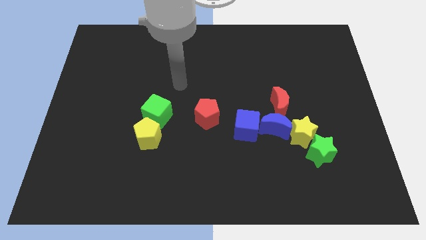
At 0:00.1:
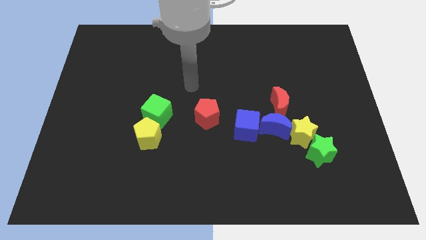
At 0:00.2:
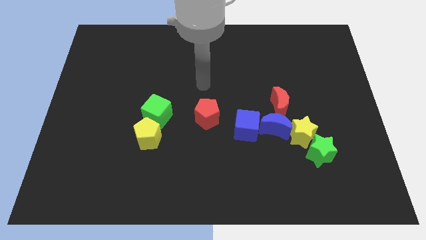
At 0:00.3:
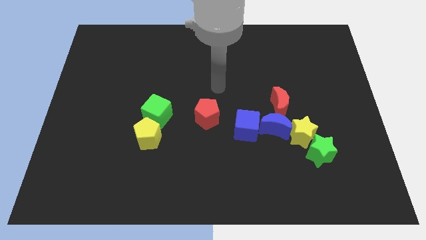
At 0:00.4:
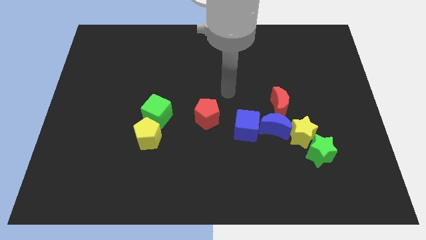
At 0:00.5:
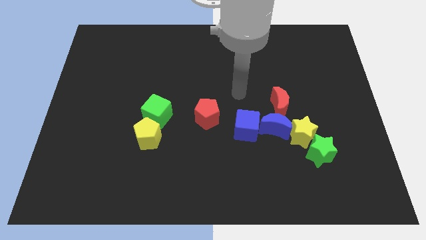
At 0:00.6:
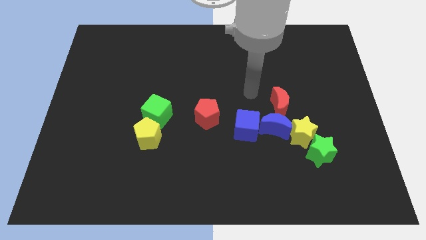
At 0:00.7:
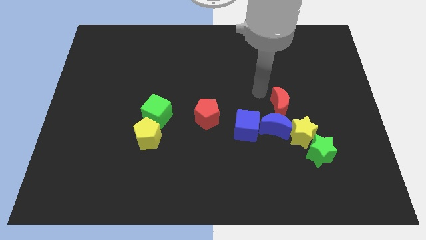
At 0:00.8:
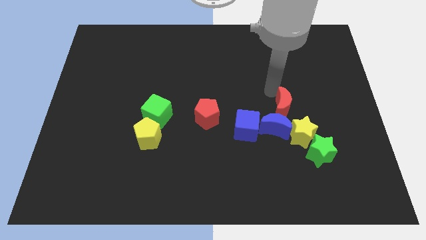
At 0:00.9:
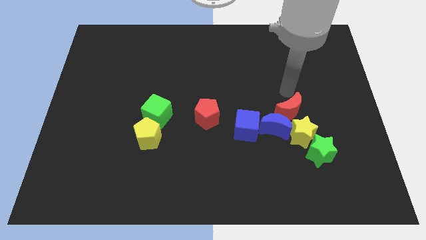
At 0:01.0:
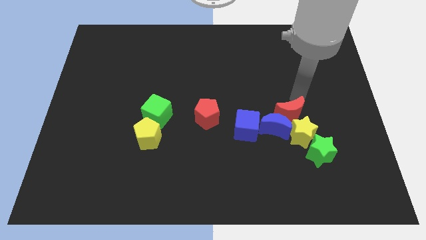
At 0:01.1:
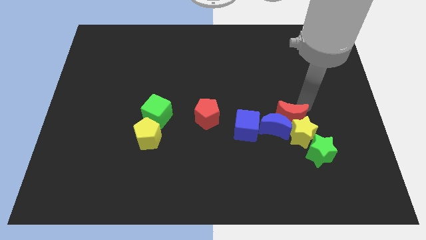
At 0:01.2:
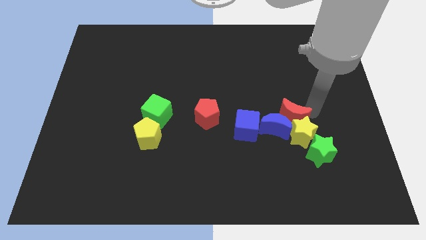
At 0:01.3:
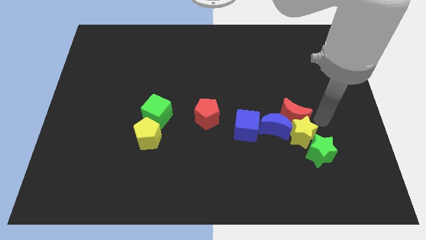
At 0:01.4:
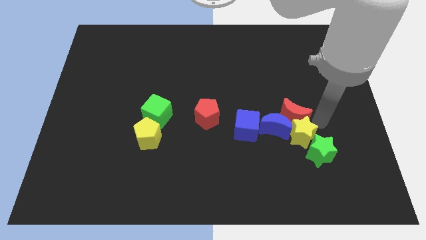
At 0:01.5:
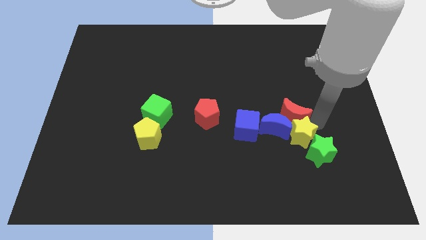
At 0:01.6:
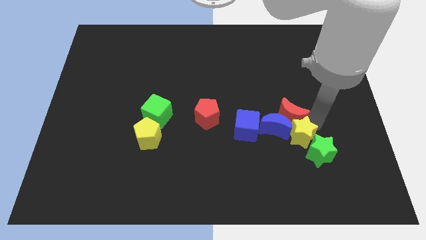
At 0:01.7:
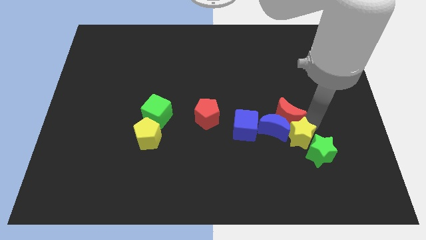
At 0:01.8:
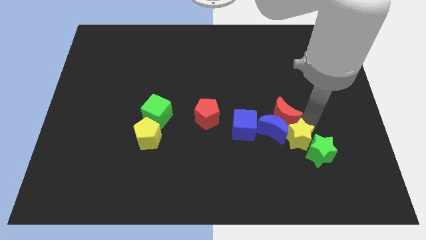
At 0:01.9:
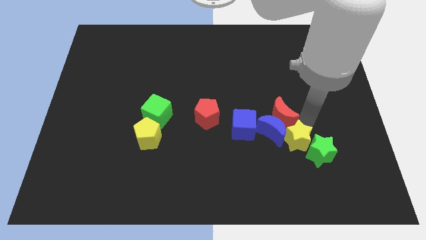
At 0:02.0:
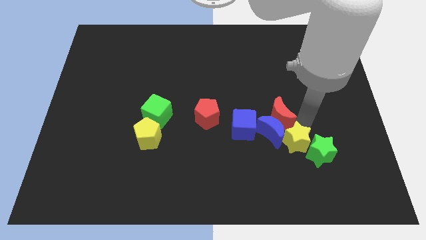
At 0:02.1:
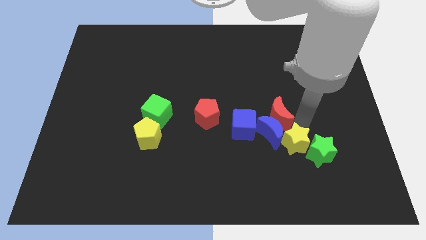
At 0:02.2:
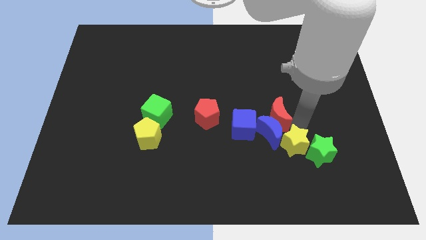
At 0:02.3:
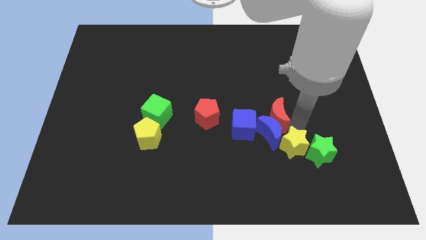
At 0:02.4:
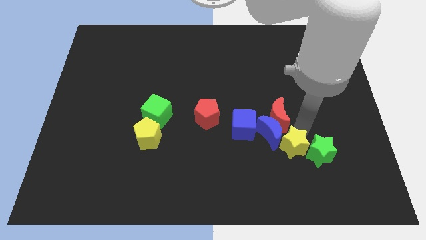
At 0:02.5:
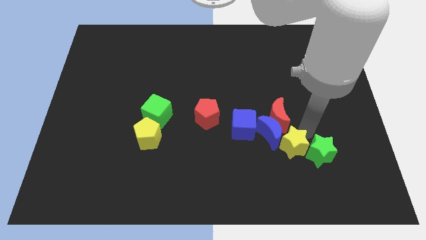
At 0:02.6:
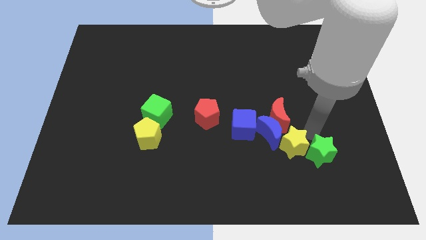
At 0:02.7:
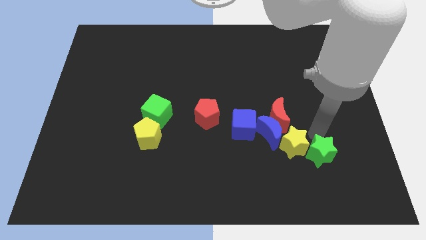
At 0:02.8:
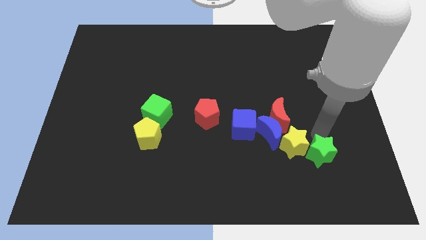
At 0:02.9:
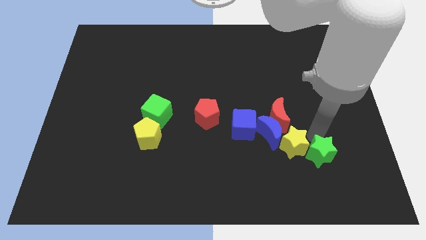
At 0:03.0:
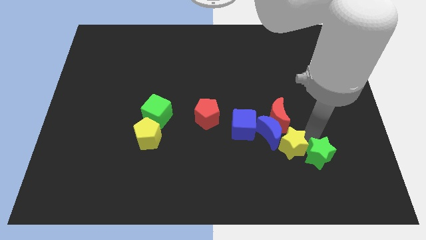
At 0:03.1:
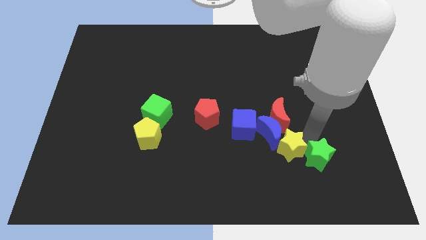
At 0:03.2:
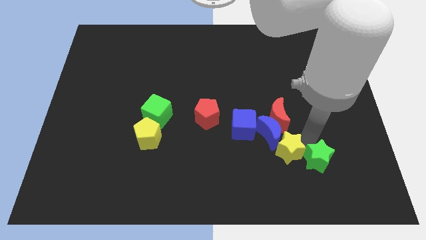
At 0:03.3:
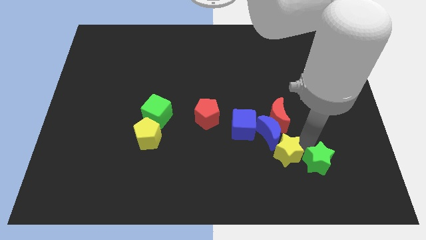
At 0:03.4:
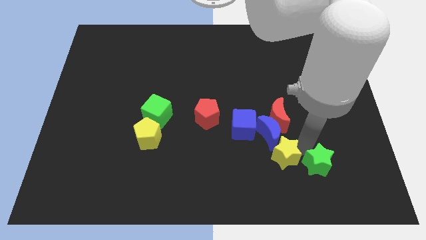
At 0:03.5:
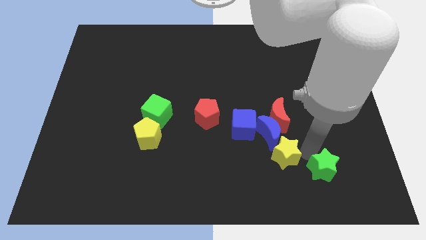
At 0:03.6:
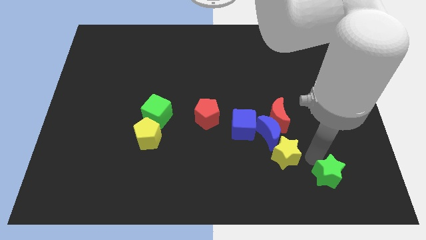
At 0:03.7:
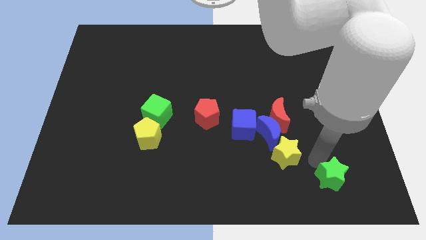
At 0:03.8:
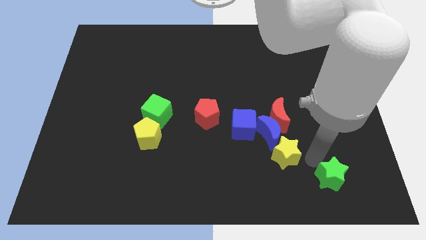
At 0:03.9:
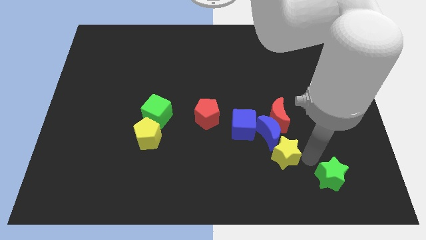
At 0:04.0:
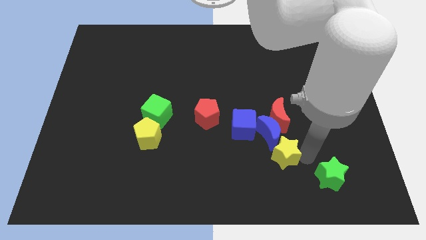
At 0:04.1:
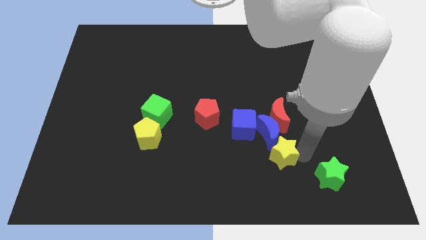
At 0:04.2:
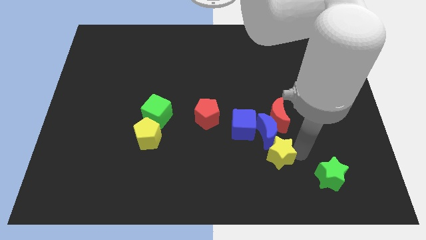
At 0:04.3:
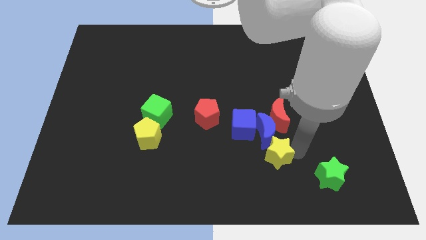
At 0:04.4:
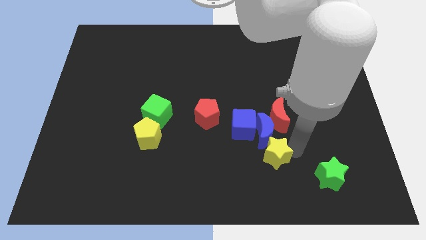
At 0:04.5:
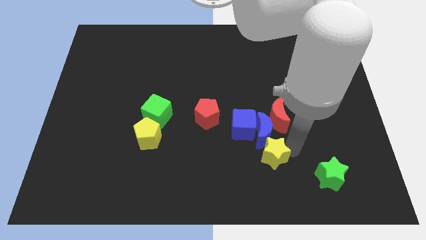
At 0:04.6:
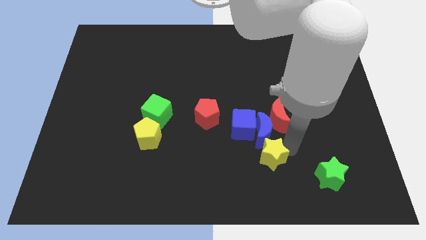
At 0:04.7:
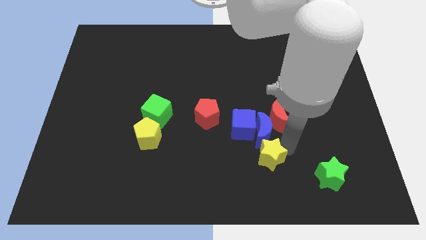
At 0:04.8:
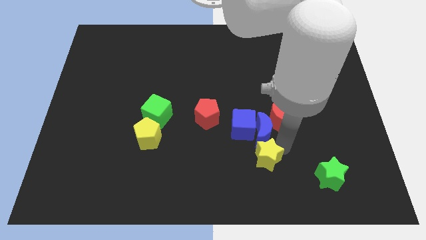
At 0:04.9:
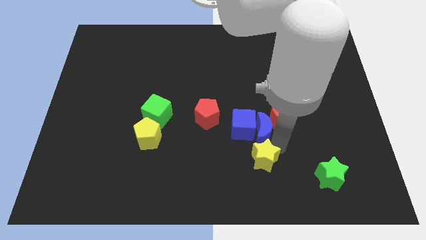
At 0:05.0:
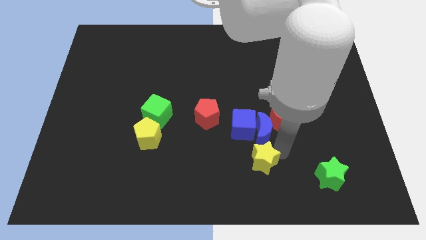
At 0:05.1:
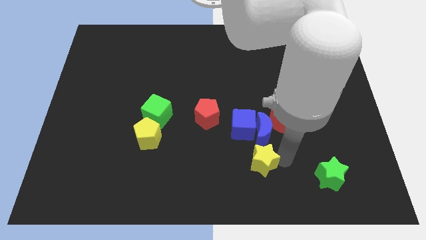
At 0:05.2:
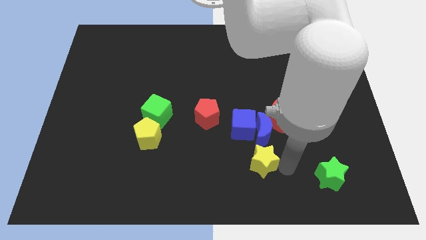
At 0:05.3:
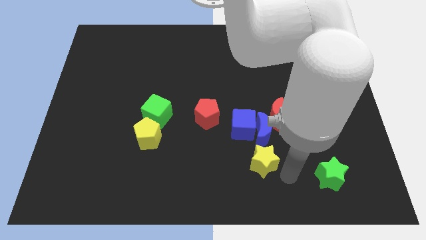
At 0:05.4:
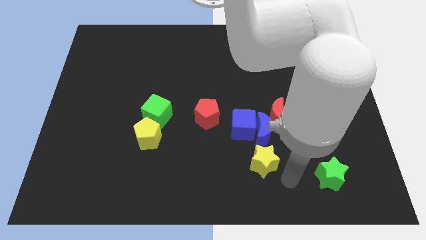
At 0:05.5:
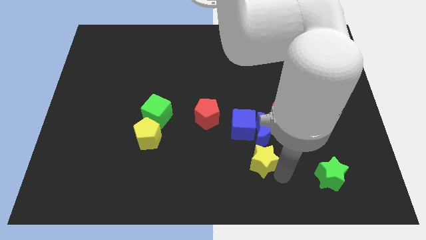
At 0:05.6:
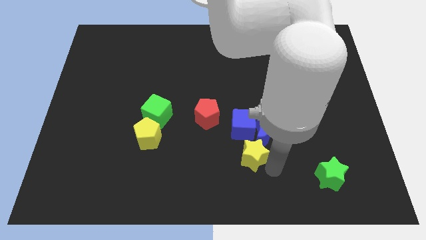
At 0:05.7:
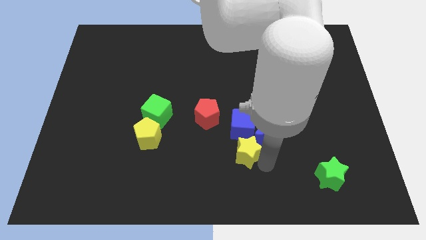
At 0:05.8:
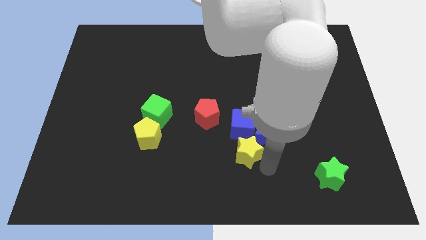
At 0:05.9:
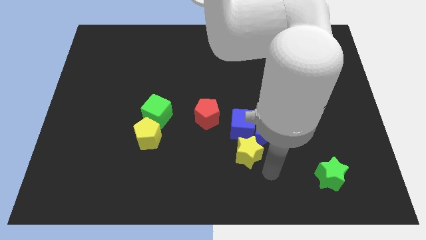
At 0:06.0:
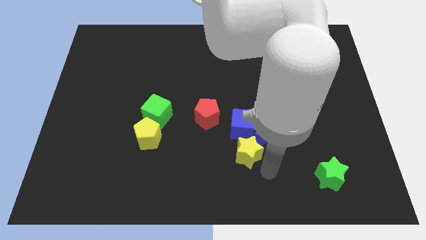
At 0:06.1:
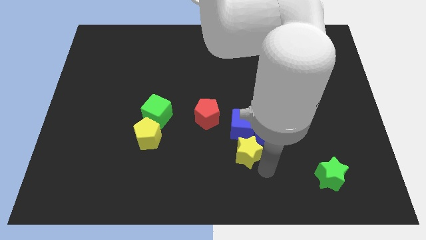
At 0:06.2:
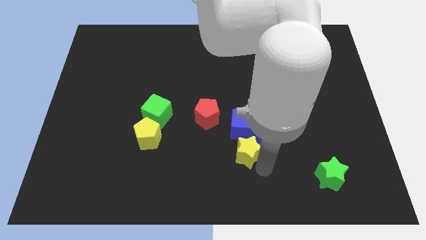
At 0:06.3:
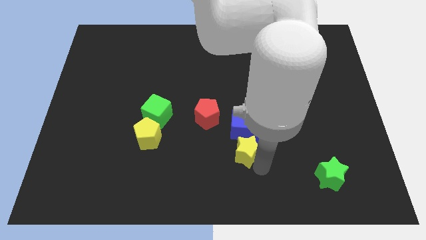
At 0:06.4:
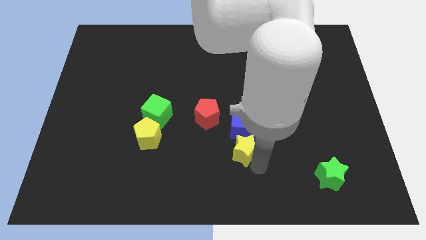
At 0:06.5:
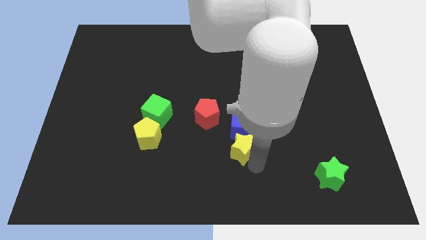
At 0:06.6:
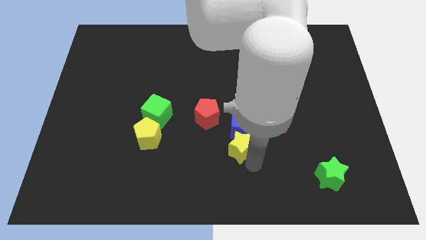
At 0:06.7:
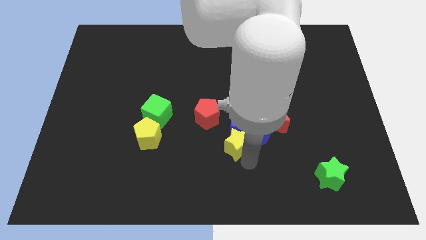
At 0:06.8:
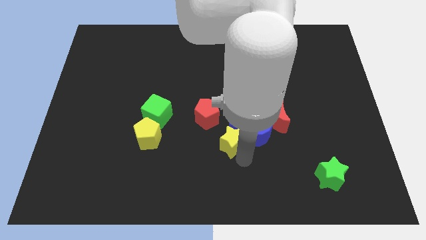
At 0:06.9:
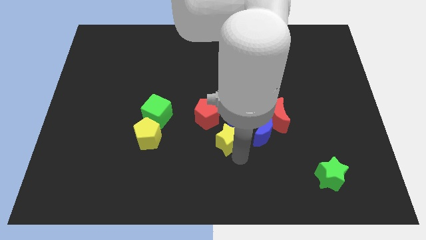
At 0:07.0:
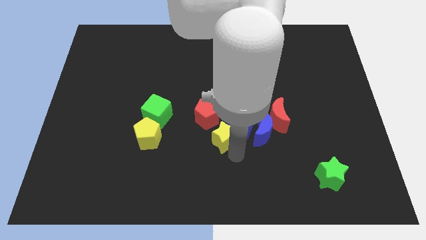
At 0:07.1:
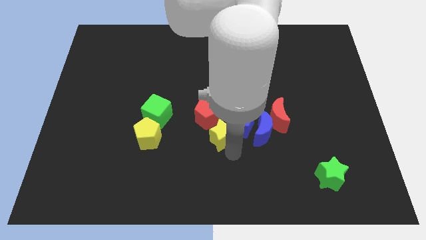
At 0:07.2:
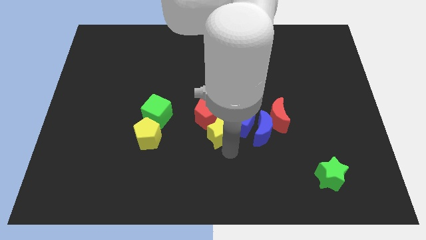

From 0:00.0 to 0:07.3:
move the yellow star to the red pentagon
